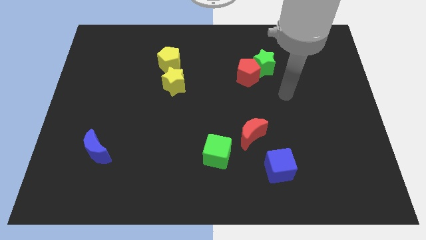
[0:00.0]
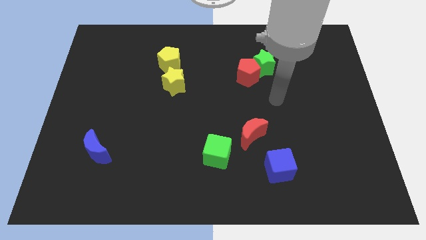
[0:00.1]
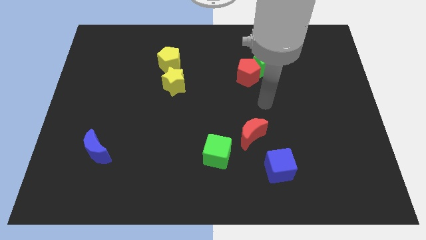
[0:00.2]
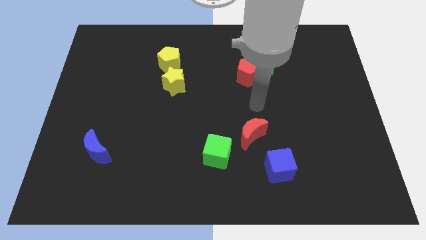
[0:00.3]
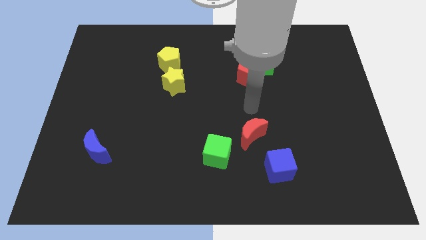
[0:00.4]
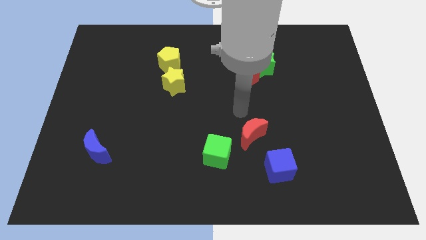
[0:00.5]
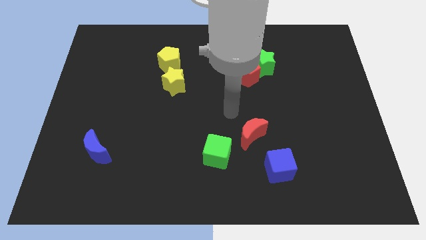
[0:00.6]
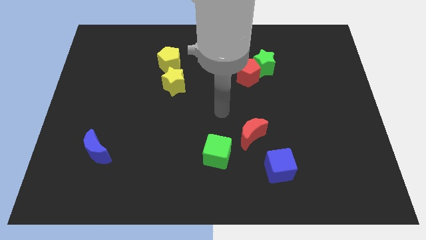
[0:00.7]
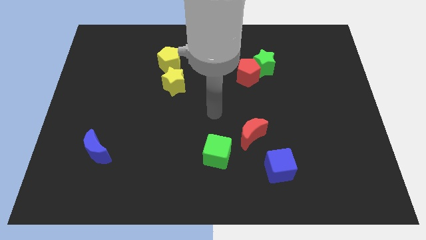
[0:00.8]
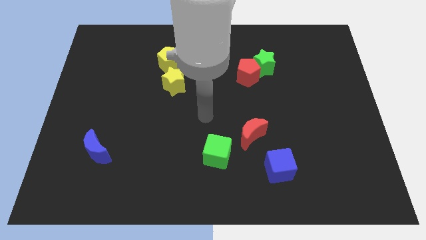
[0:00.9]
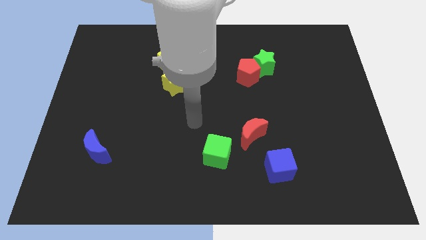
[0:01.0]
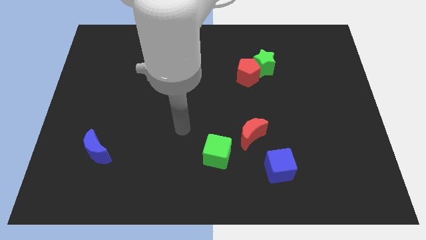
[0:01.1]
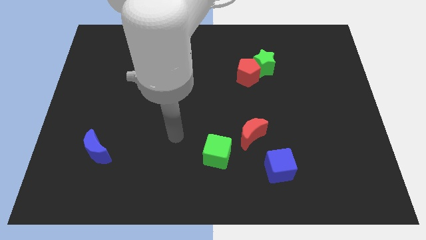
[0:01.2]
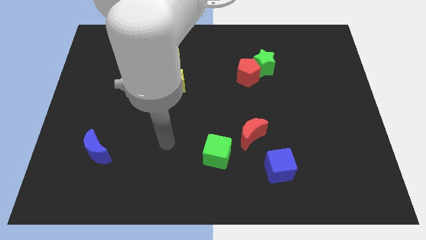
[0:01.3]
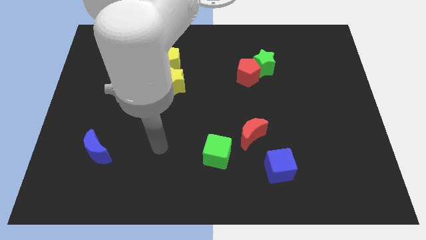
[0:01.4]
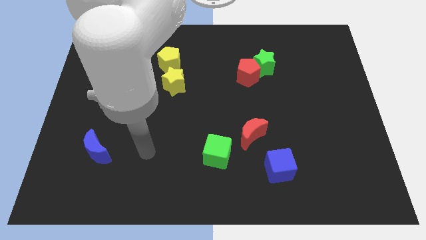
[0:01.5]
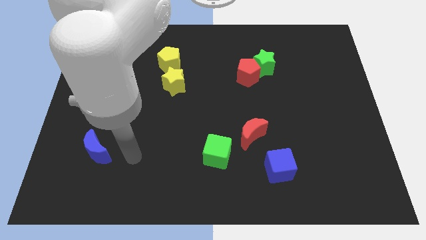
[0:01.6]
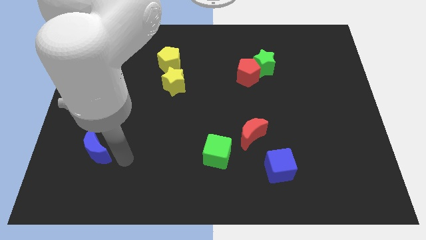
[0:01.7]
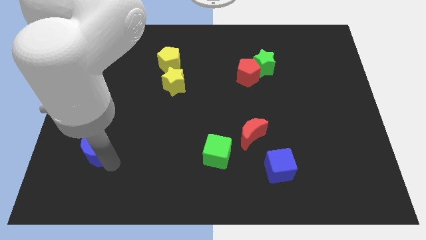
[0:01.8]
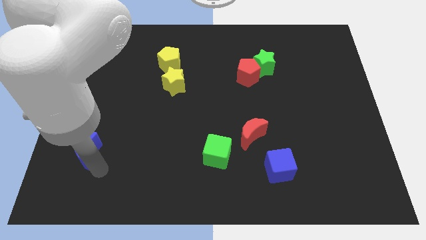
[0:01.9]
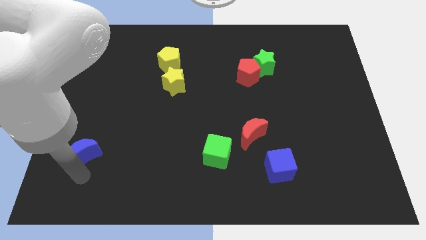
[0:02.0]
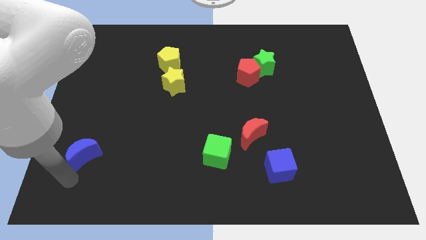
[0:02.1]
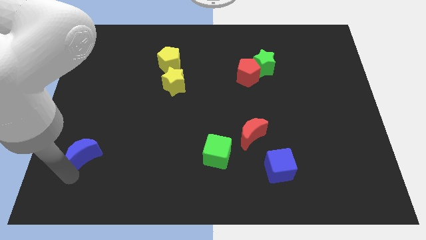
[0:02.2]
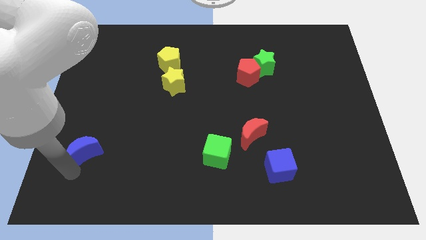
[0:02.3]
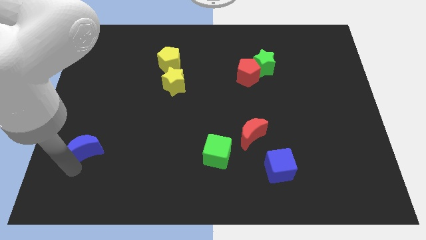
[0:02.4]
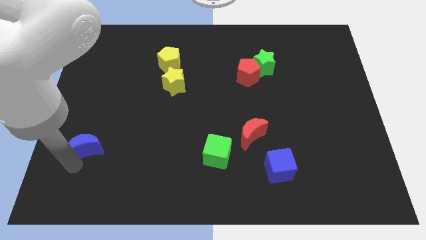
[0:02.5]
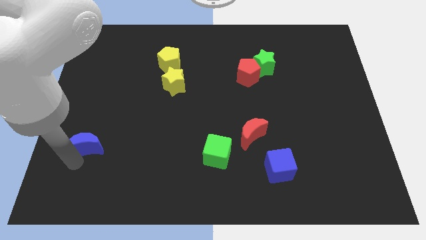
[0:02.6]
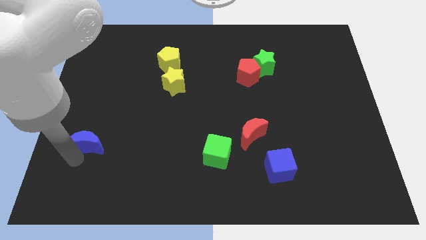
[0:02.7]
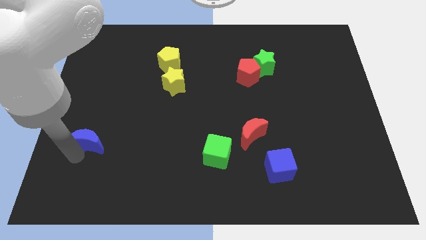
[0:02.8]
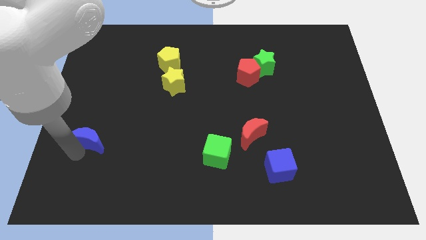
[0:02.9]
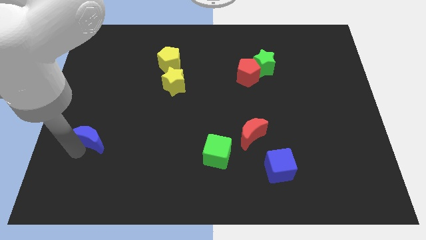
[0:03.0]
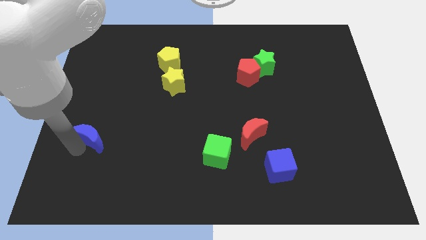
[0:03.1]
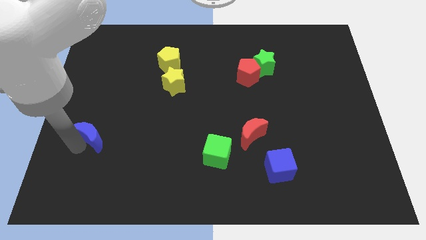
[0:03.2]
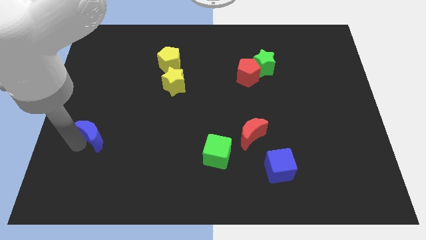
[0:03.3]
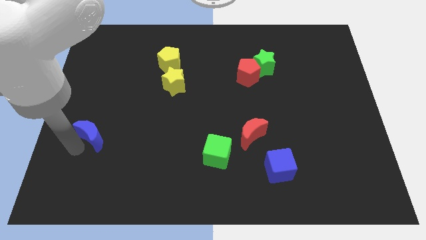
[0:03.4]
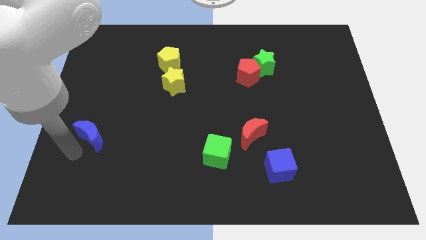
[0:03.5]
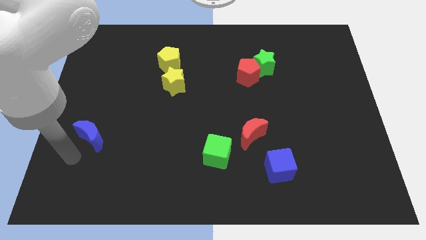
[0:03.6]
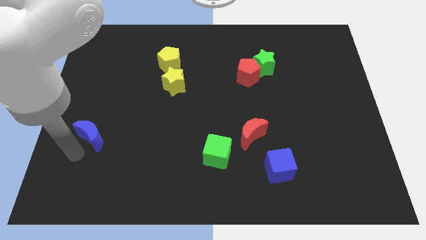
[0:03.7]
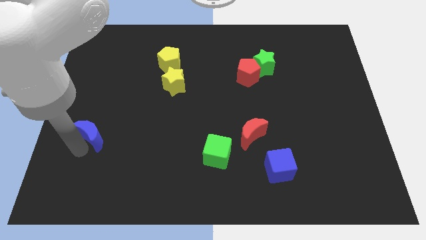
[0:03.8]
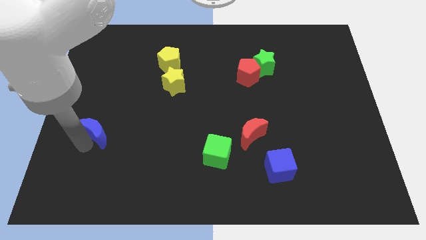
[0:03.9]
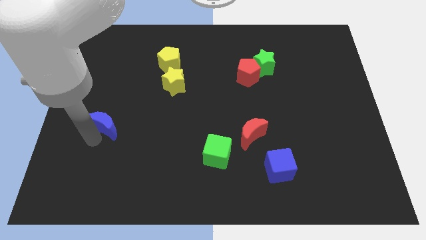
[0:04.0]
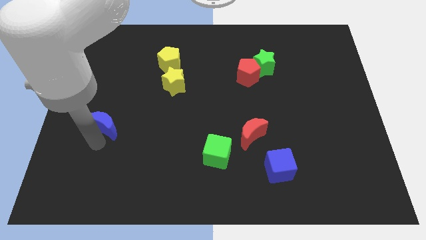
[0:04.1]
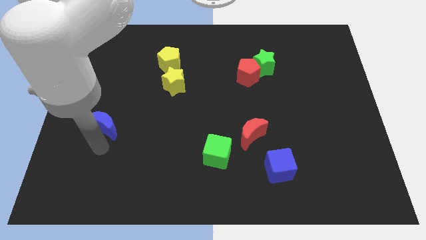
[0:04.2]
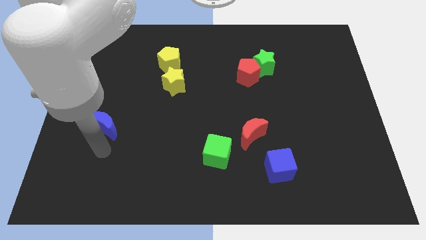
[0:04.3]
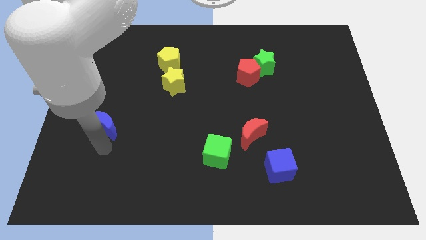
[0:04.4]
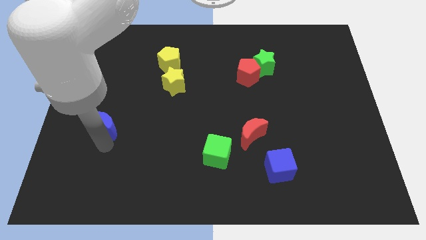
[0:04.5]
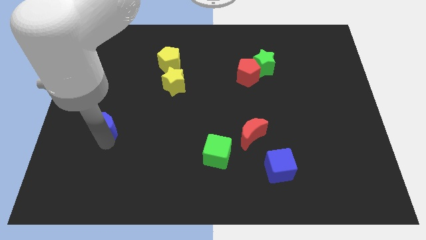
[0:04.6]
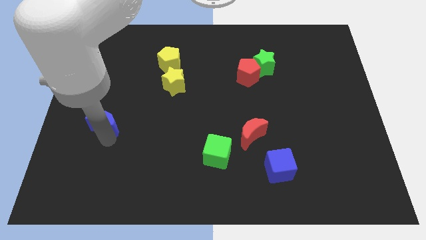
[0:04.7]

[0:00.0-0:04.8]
slightly slide the blue moon upwards

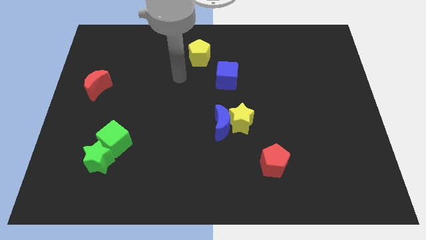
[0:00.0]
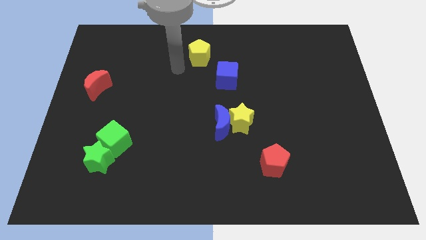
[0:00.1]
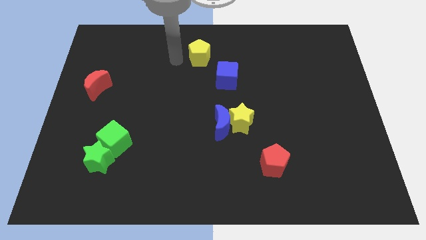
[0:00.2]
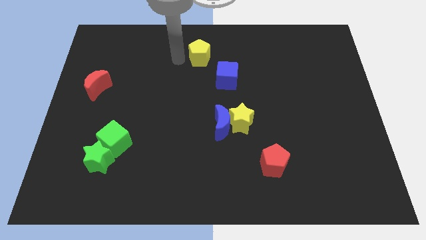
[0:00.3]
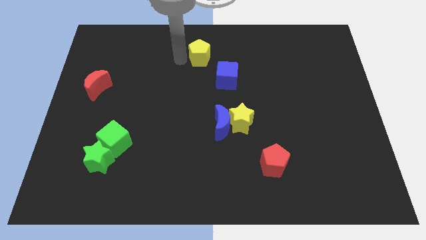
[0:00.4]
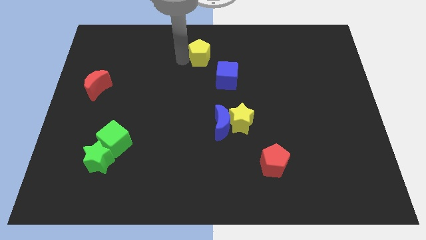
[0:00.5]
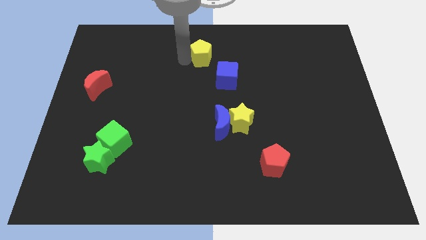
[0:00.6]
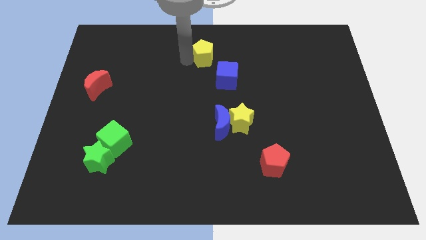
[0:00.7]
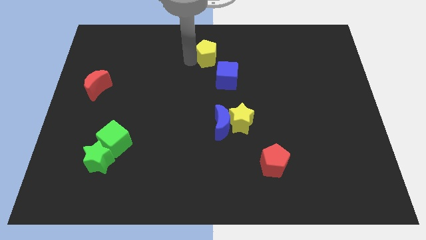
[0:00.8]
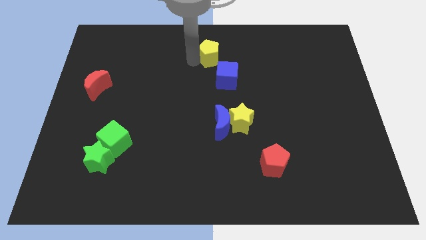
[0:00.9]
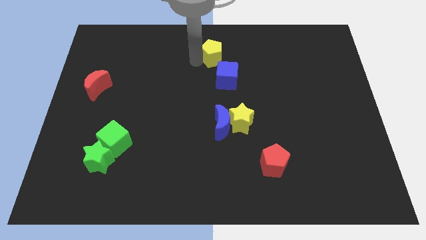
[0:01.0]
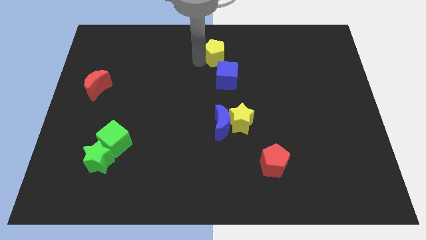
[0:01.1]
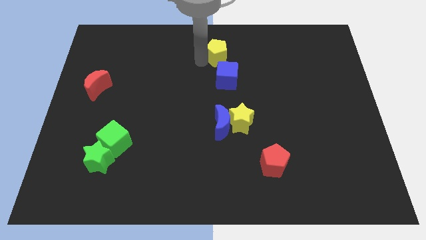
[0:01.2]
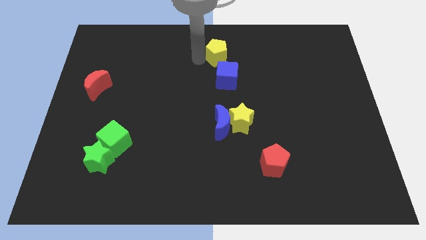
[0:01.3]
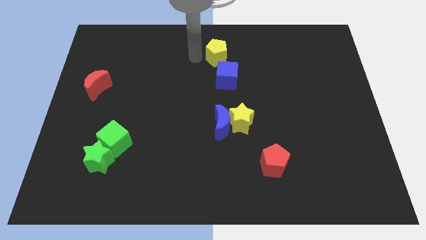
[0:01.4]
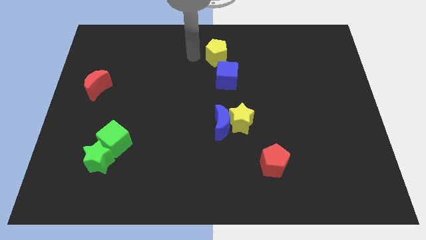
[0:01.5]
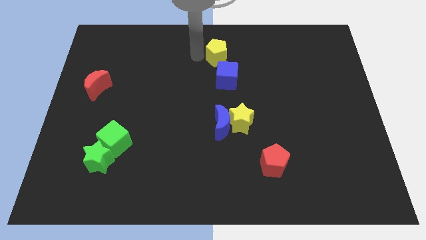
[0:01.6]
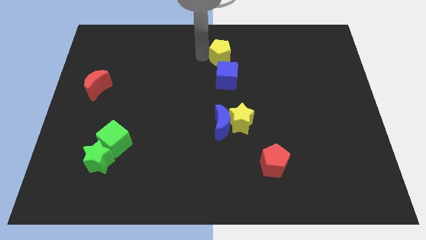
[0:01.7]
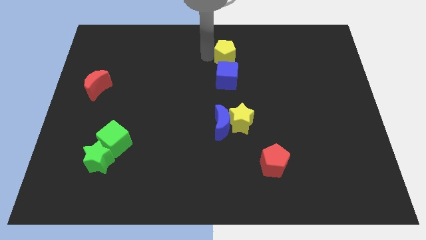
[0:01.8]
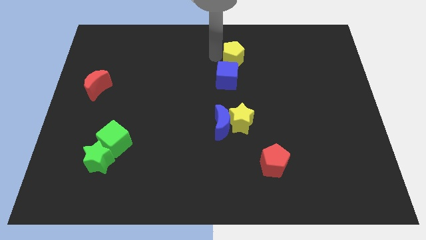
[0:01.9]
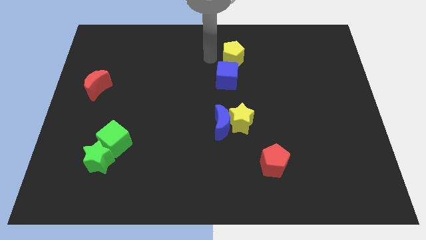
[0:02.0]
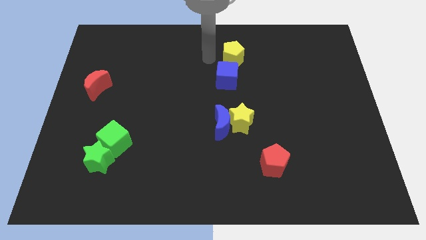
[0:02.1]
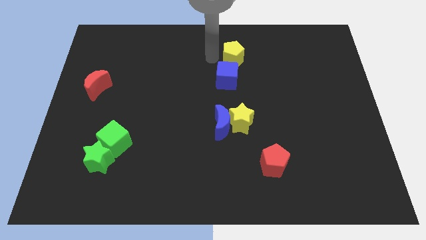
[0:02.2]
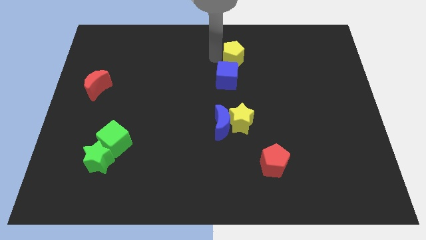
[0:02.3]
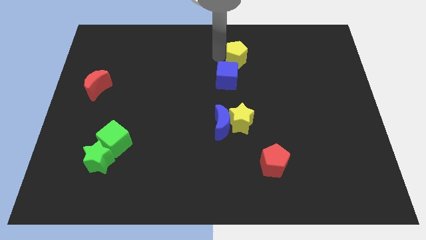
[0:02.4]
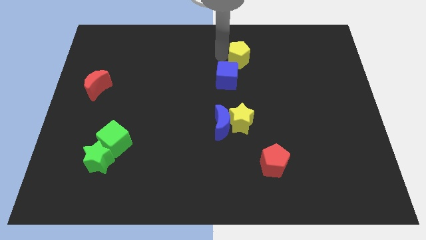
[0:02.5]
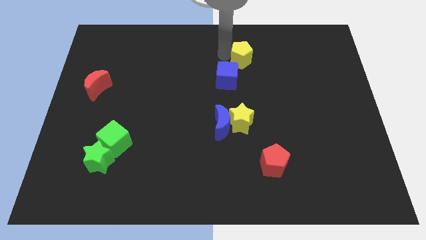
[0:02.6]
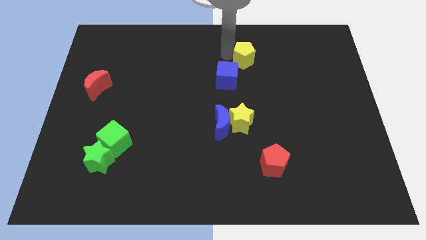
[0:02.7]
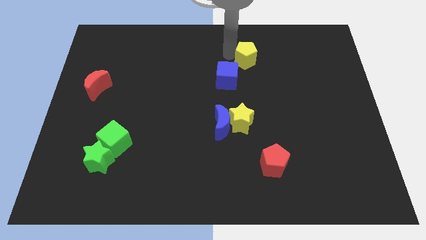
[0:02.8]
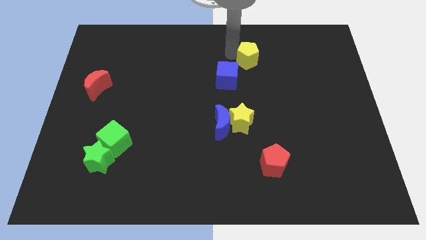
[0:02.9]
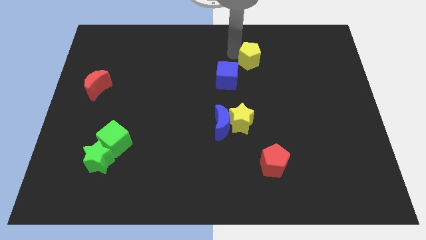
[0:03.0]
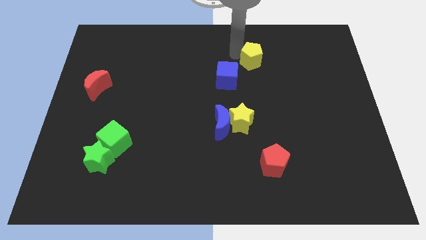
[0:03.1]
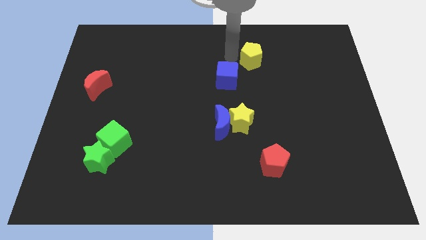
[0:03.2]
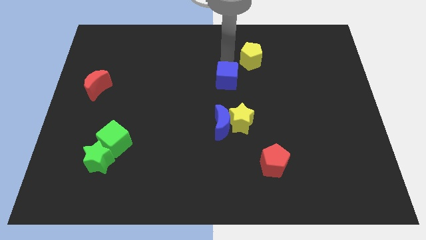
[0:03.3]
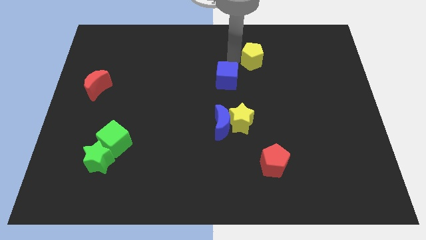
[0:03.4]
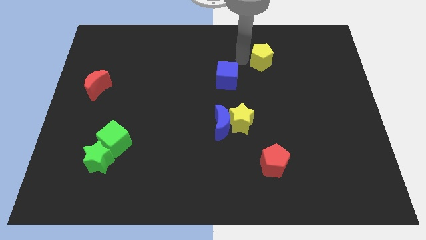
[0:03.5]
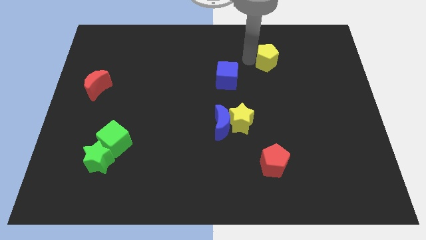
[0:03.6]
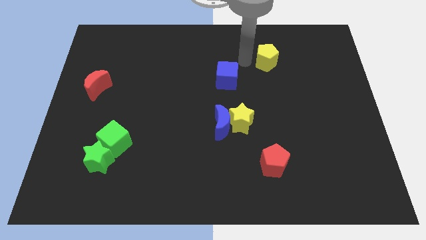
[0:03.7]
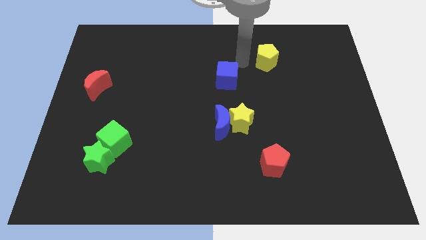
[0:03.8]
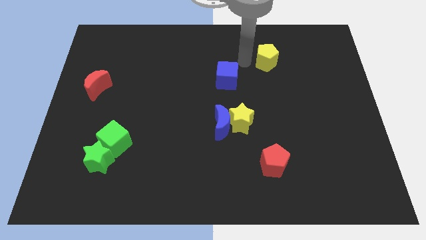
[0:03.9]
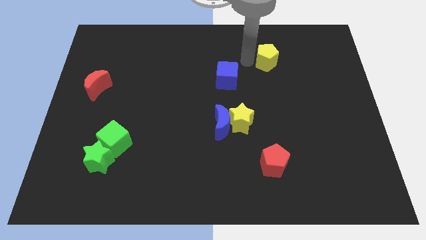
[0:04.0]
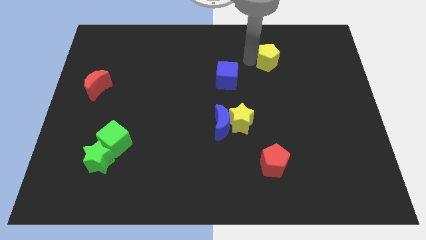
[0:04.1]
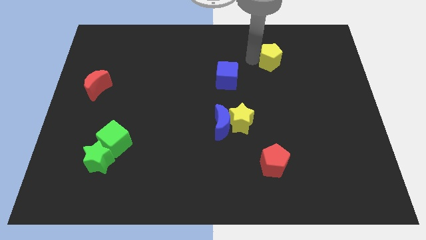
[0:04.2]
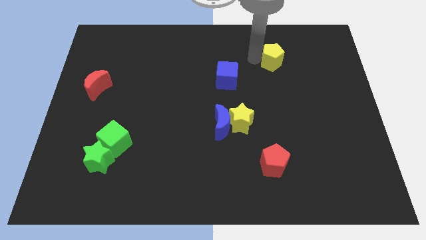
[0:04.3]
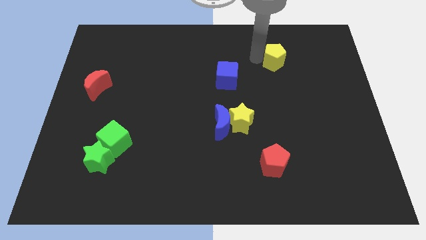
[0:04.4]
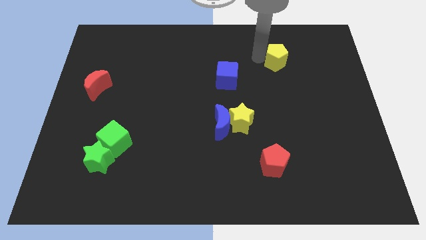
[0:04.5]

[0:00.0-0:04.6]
slide the yellow pentagon right
